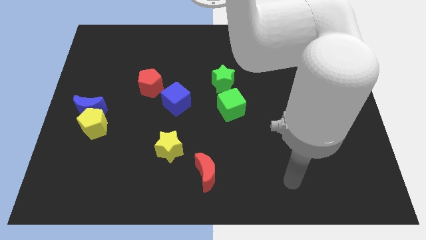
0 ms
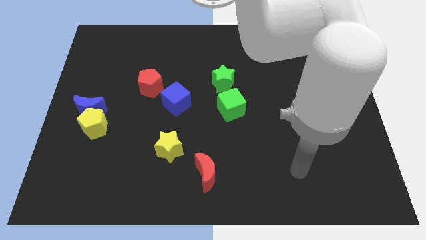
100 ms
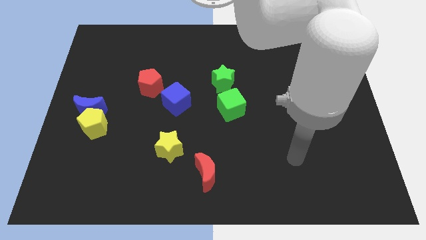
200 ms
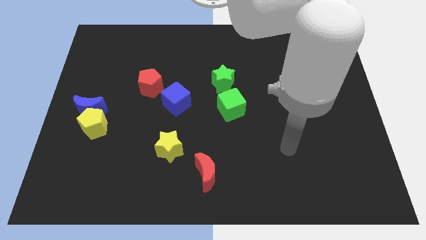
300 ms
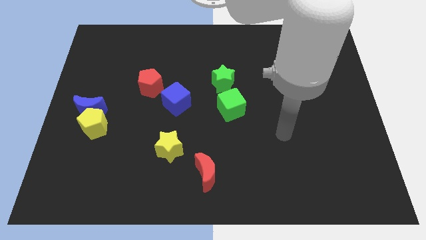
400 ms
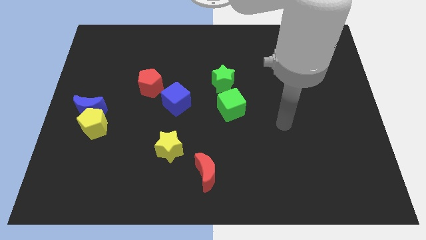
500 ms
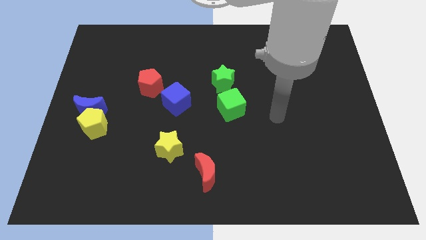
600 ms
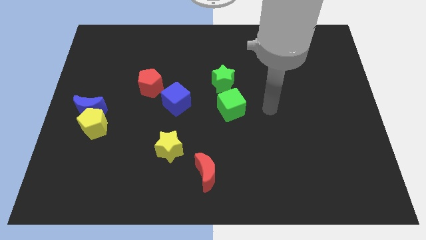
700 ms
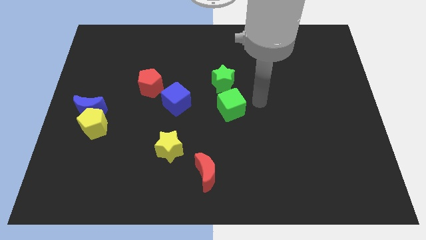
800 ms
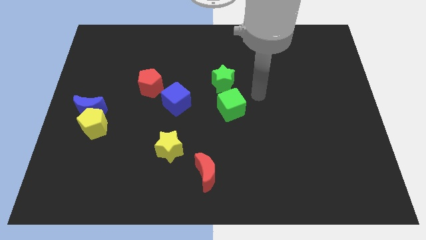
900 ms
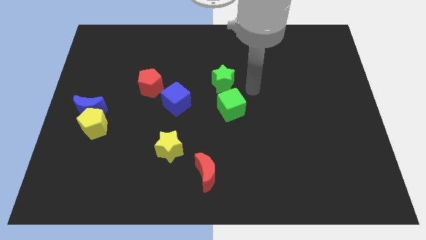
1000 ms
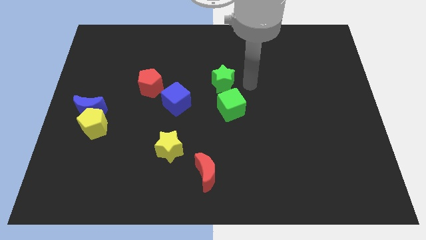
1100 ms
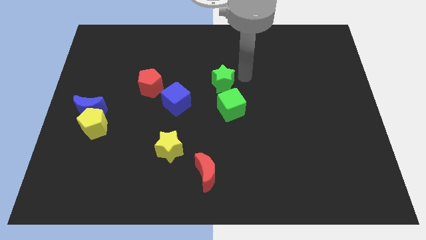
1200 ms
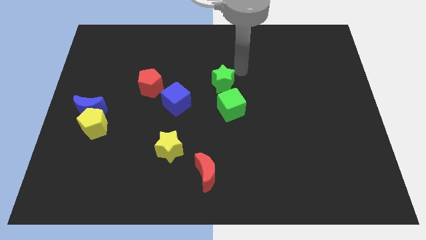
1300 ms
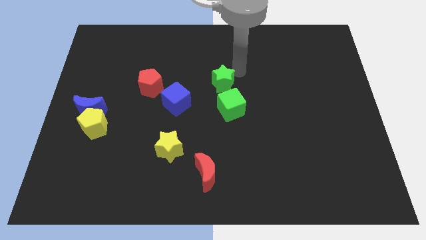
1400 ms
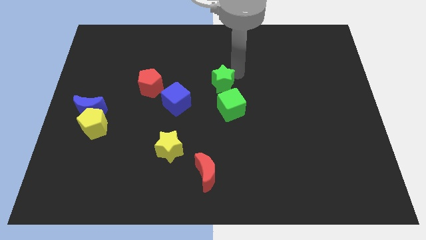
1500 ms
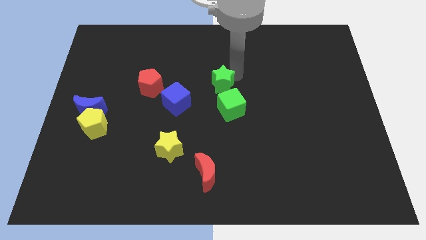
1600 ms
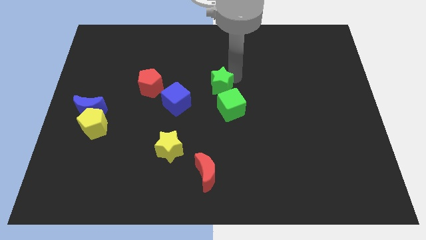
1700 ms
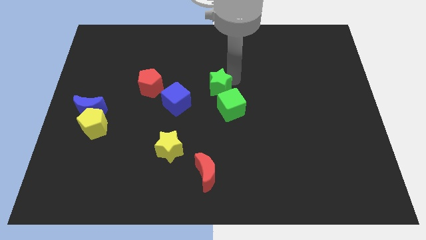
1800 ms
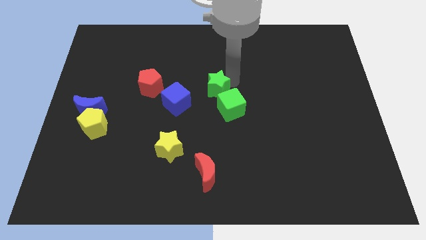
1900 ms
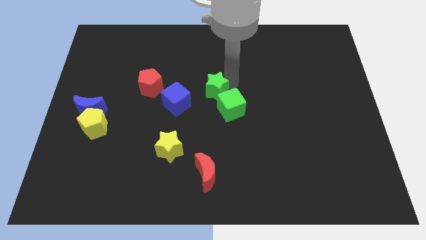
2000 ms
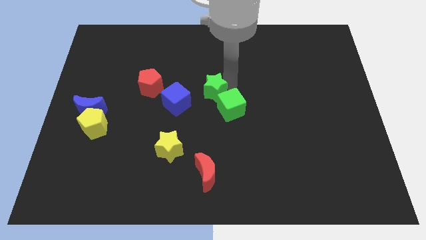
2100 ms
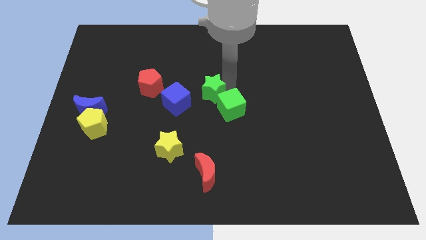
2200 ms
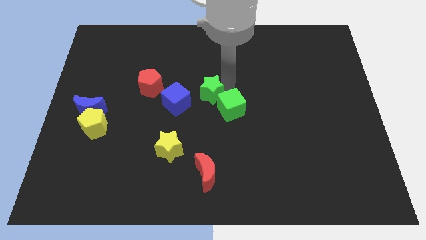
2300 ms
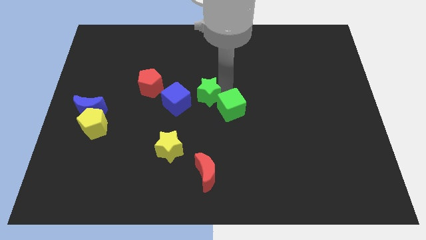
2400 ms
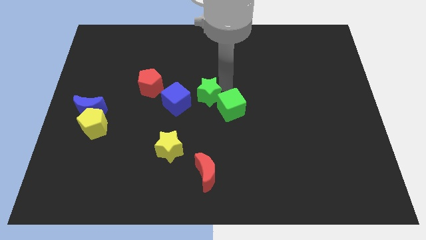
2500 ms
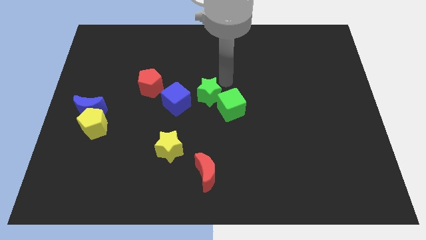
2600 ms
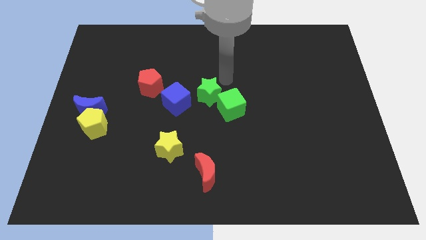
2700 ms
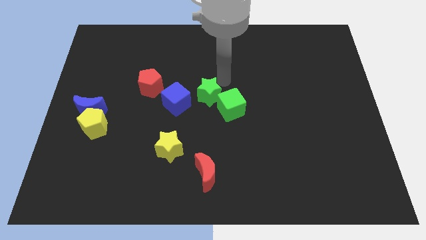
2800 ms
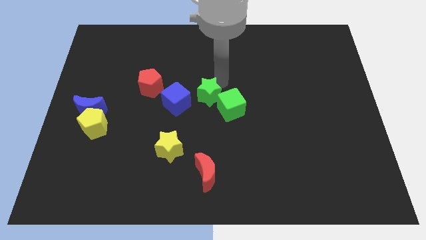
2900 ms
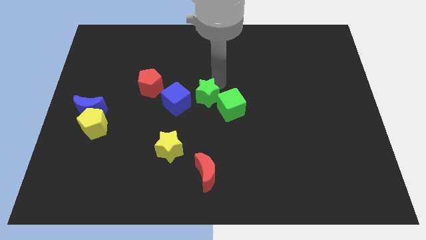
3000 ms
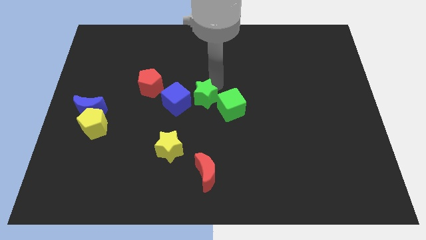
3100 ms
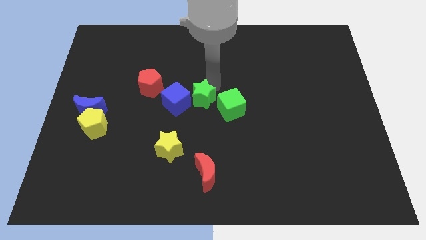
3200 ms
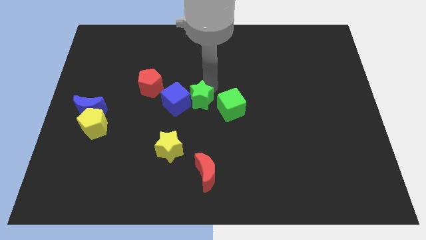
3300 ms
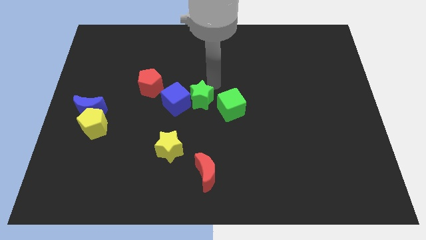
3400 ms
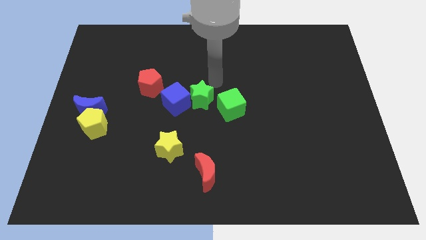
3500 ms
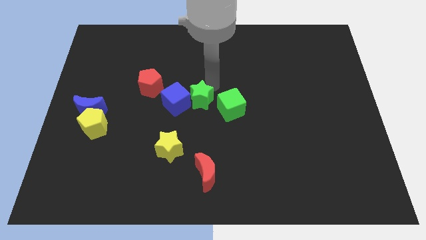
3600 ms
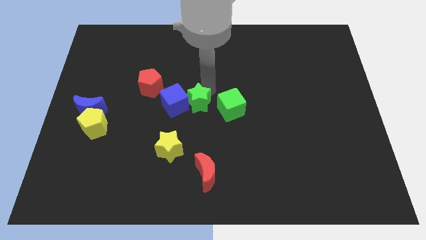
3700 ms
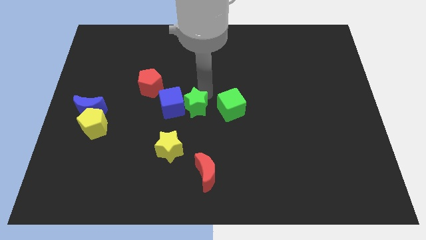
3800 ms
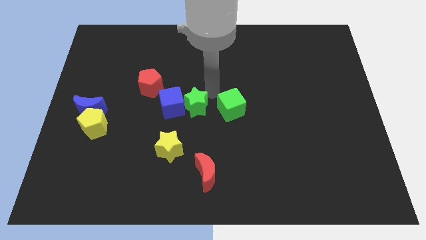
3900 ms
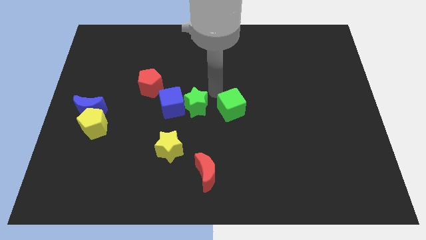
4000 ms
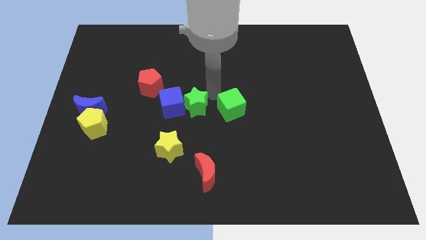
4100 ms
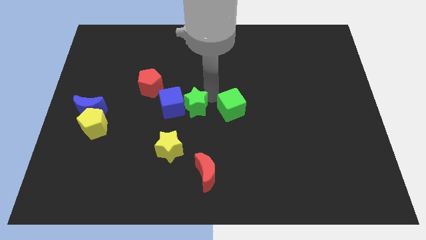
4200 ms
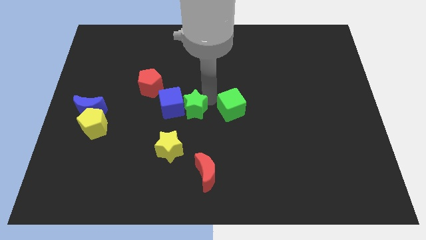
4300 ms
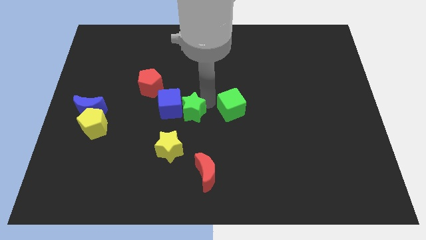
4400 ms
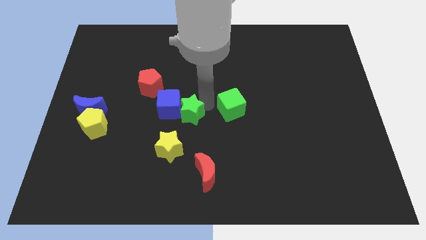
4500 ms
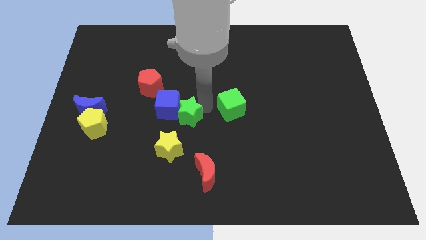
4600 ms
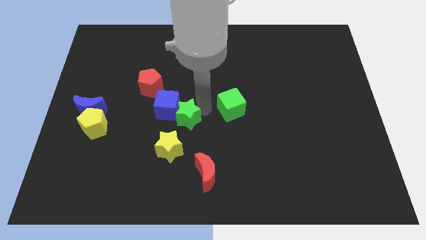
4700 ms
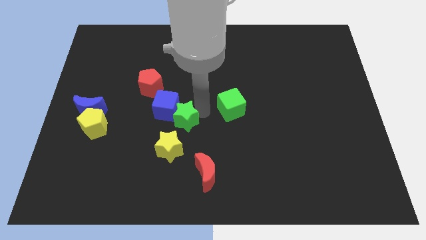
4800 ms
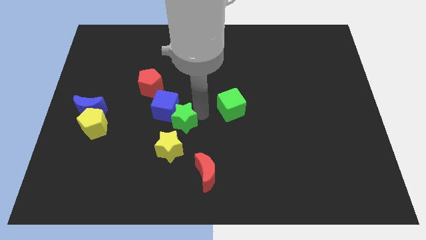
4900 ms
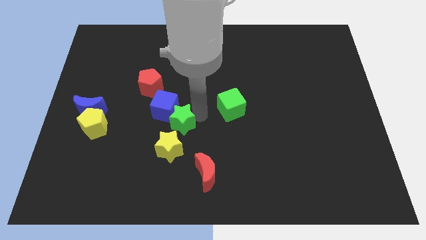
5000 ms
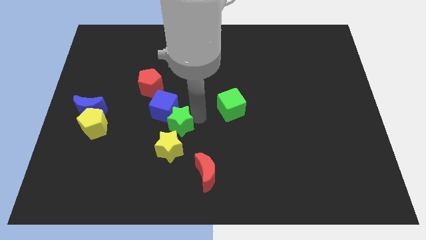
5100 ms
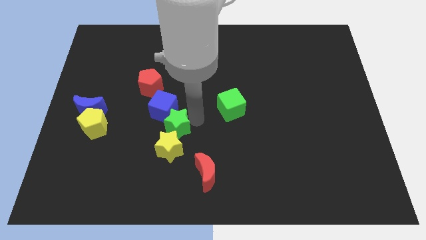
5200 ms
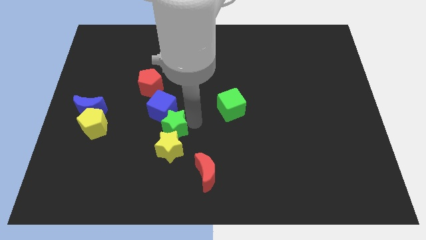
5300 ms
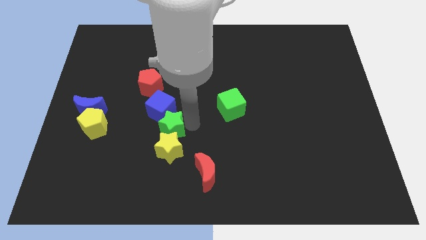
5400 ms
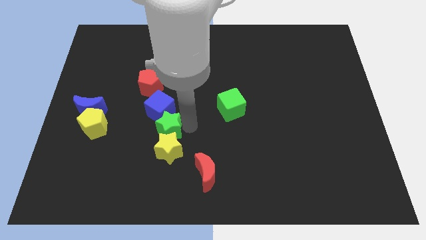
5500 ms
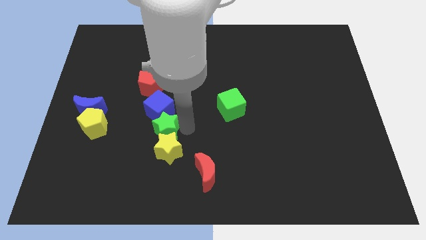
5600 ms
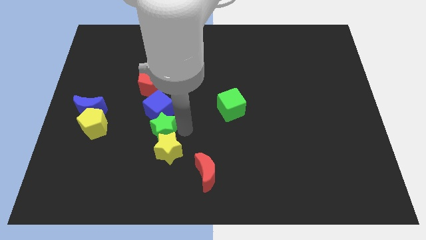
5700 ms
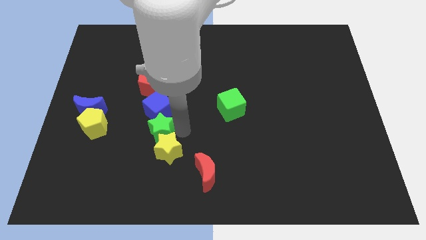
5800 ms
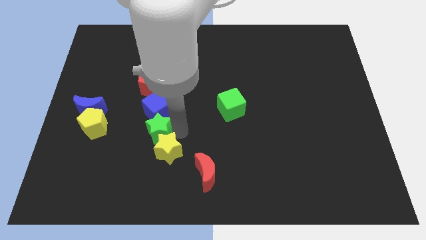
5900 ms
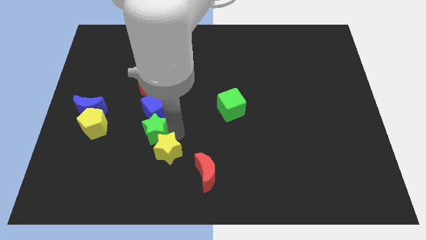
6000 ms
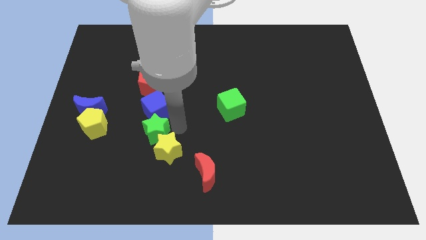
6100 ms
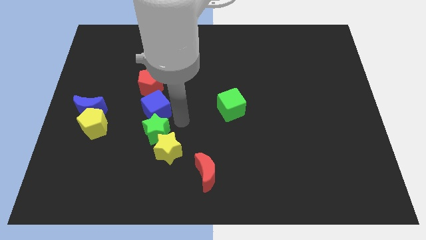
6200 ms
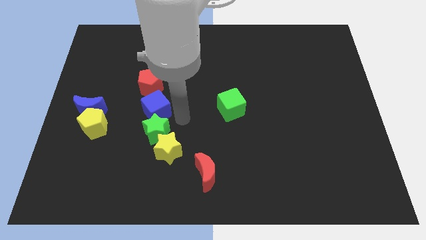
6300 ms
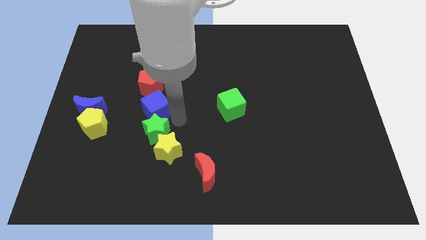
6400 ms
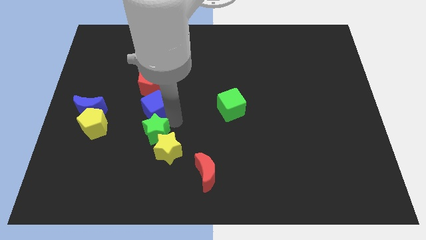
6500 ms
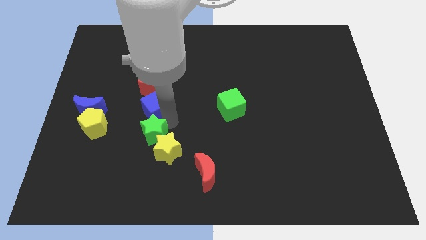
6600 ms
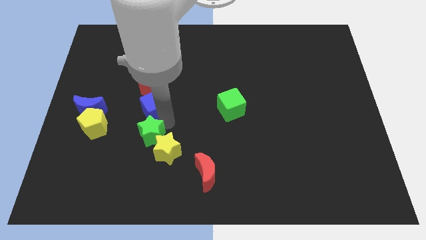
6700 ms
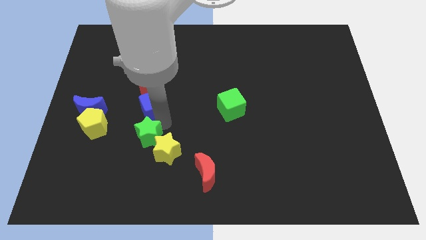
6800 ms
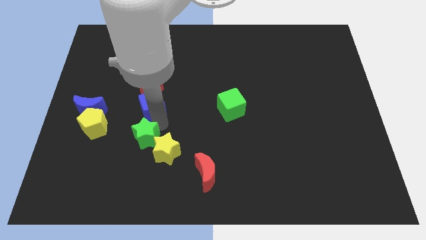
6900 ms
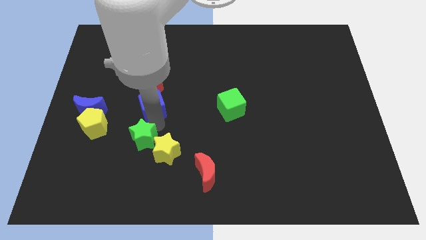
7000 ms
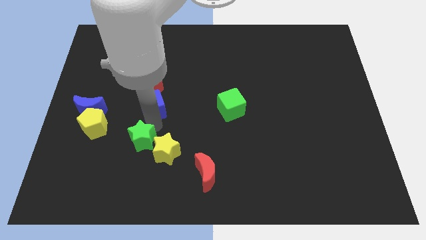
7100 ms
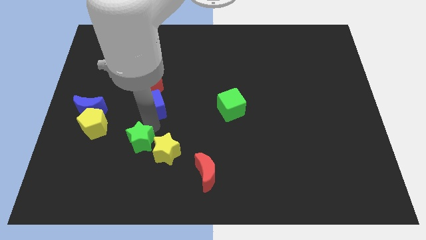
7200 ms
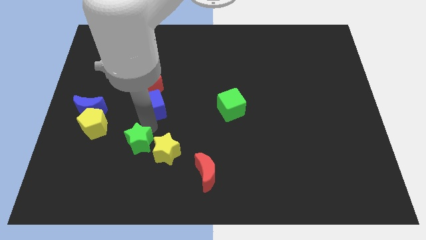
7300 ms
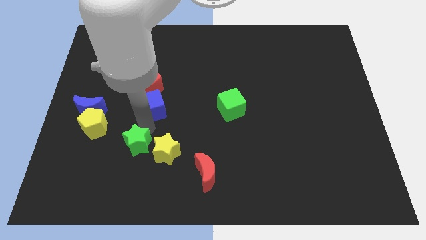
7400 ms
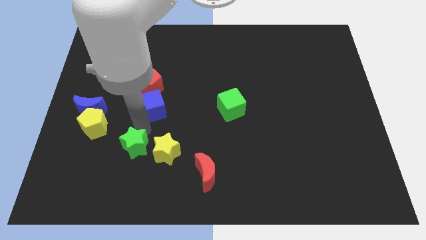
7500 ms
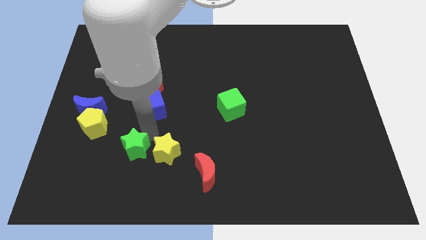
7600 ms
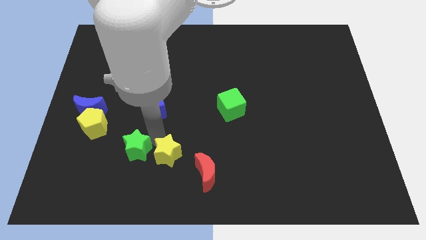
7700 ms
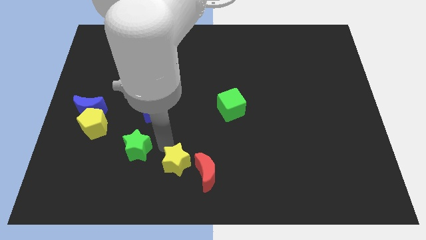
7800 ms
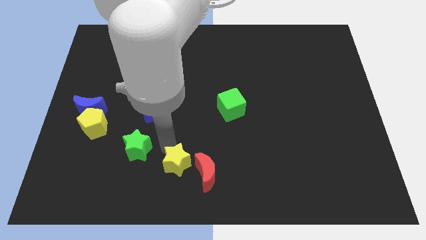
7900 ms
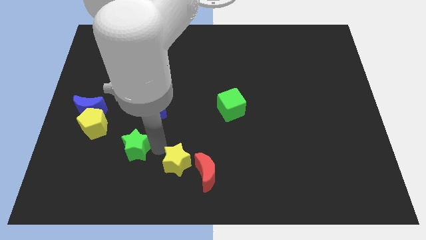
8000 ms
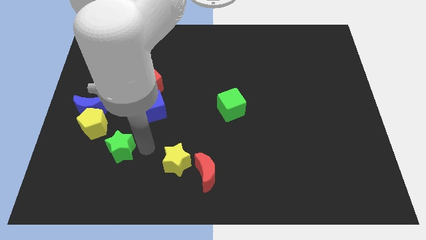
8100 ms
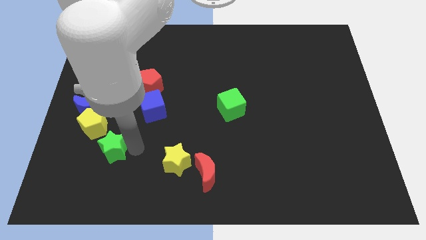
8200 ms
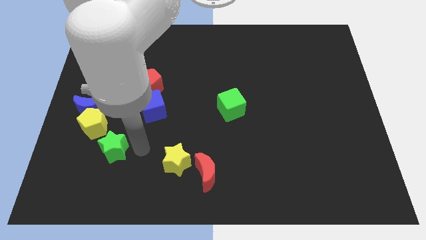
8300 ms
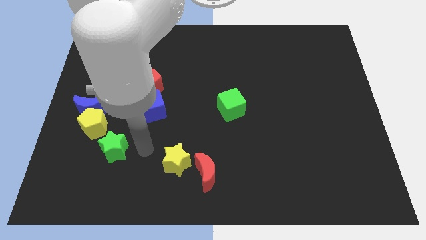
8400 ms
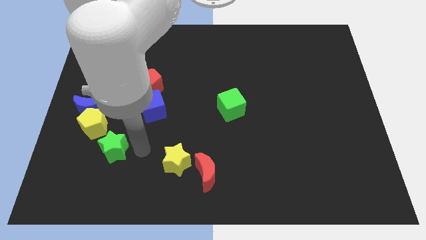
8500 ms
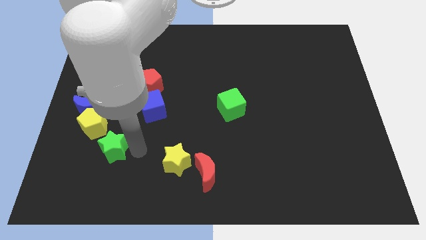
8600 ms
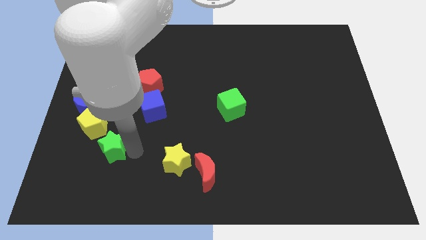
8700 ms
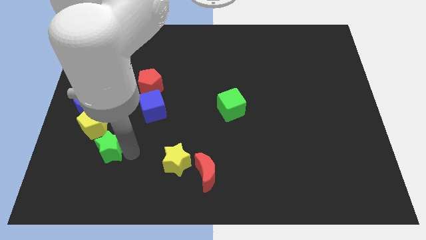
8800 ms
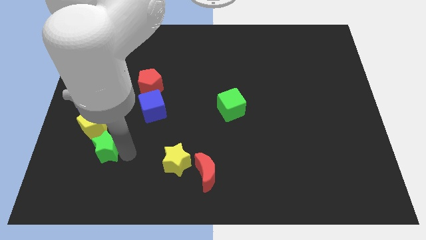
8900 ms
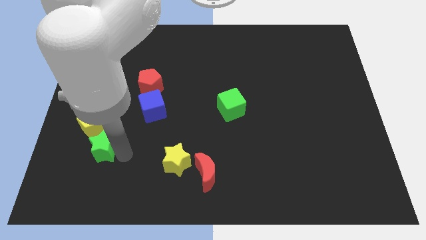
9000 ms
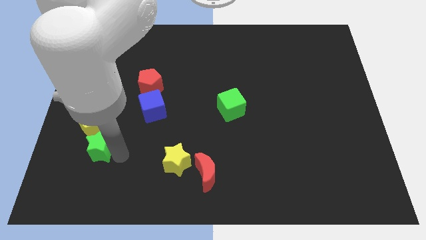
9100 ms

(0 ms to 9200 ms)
slide the green star below the blue moon
